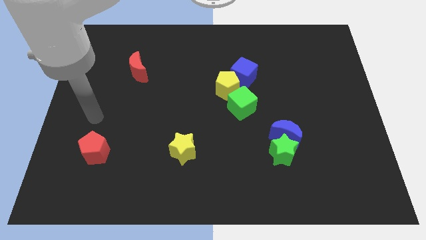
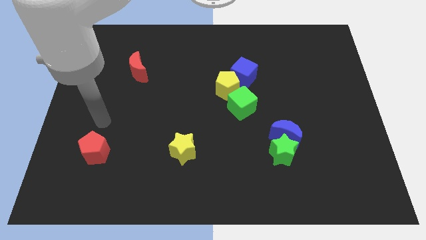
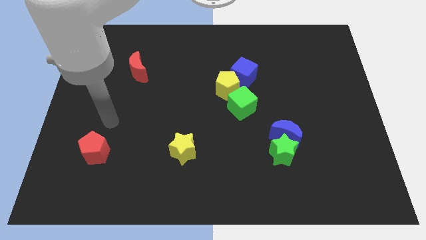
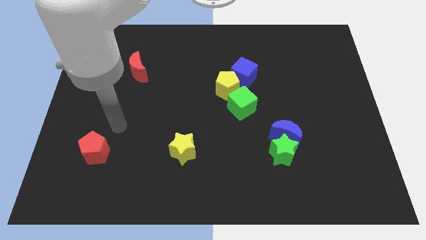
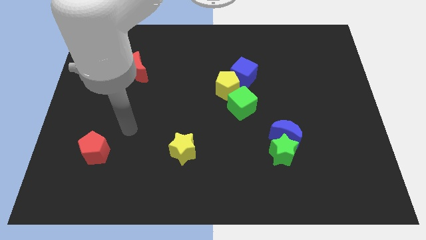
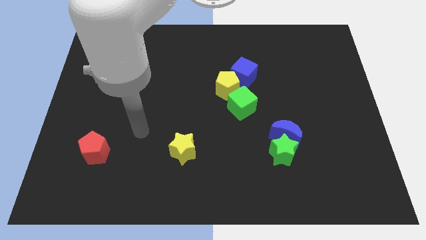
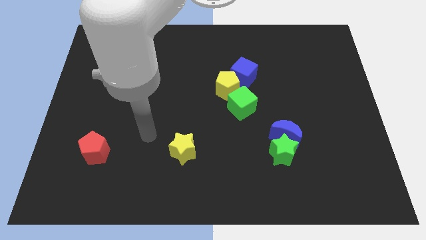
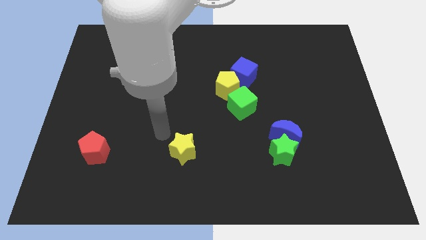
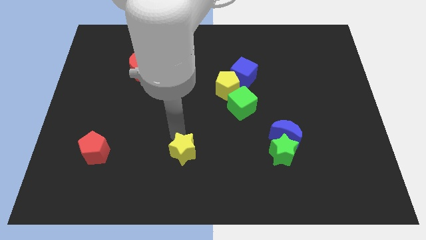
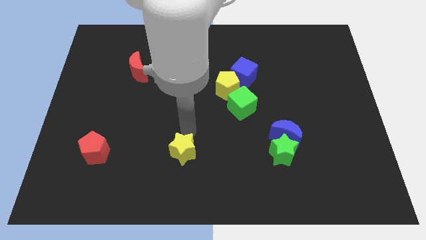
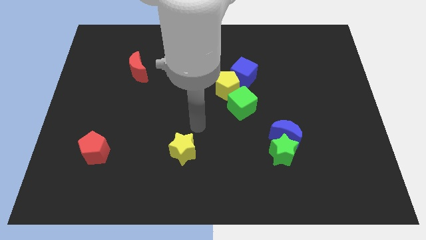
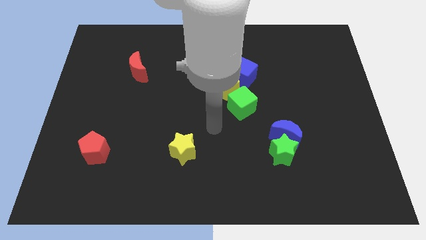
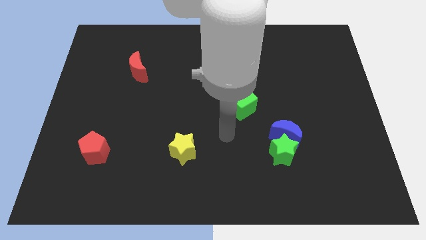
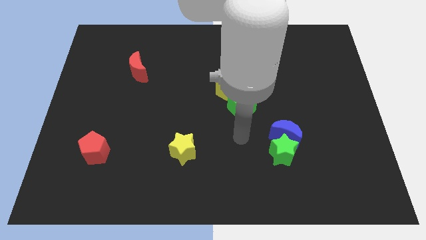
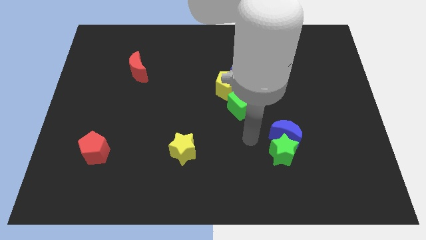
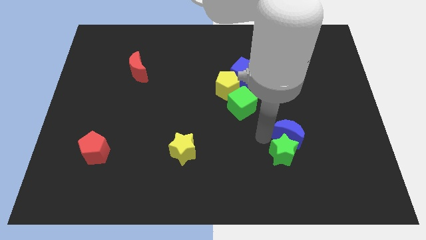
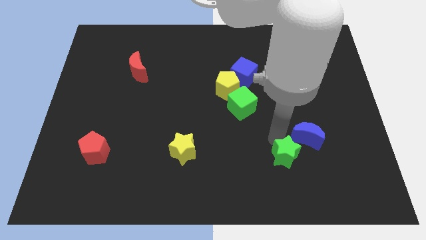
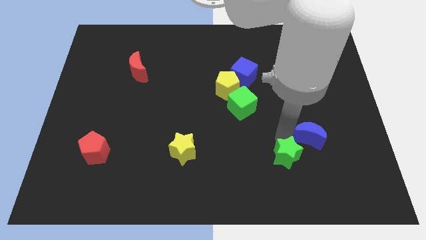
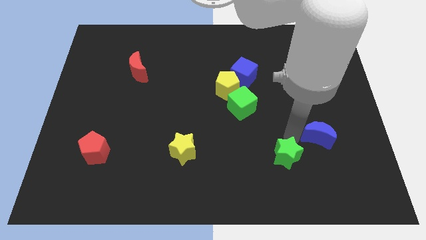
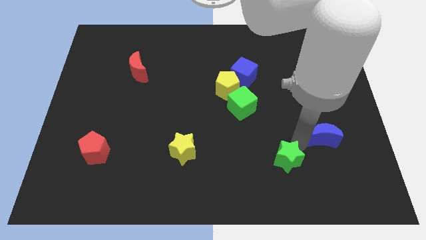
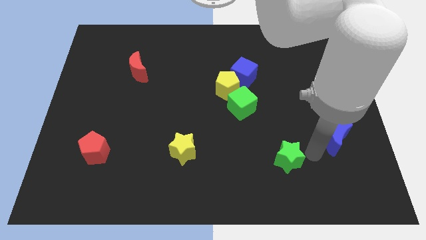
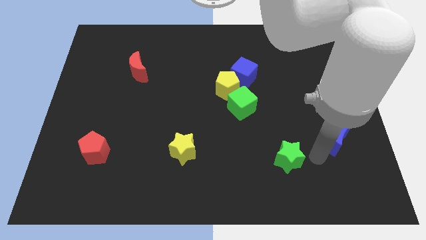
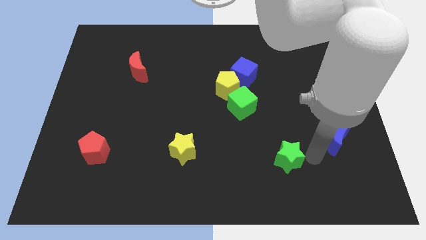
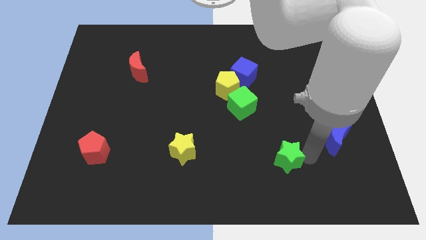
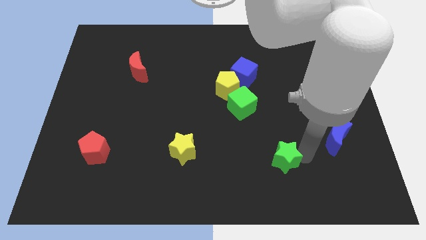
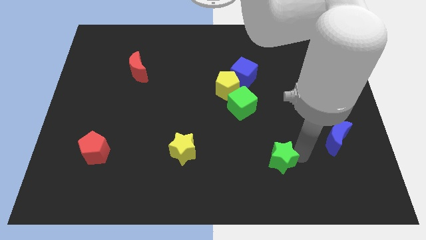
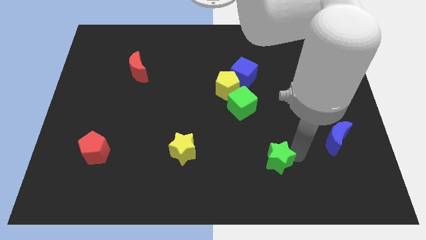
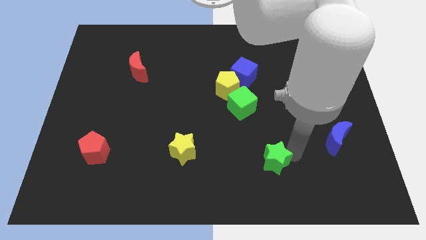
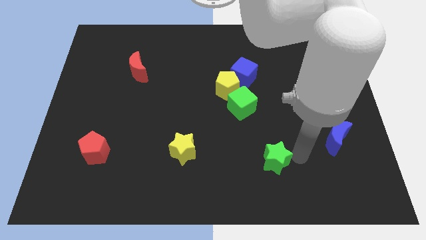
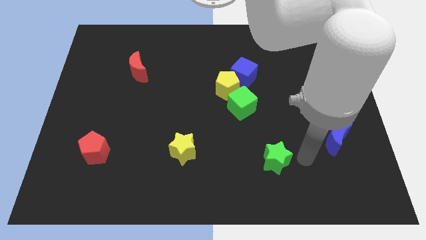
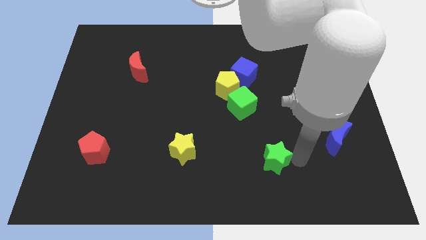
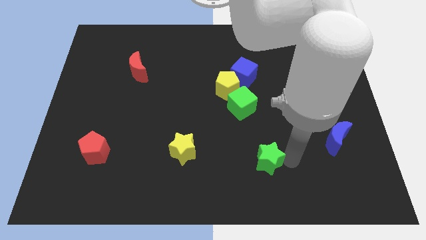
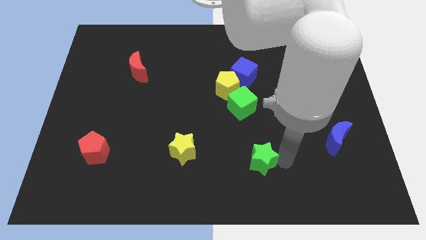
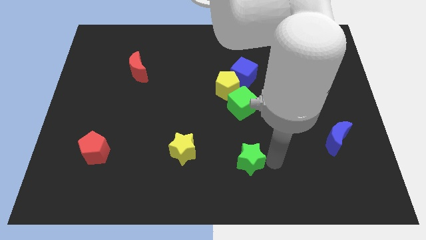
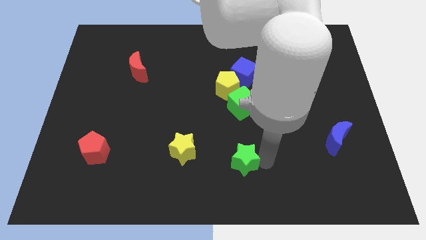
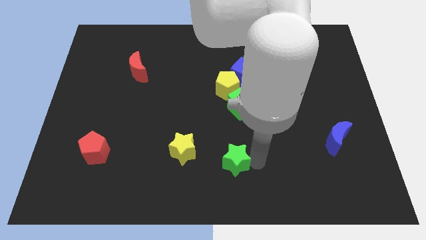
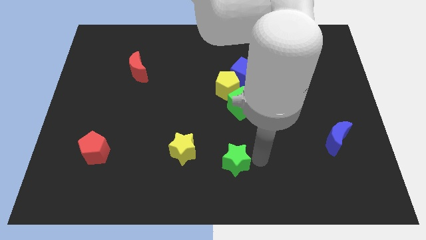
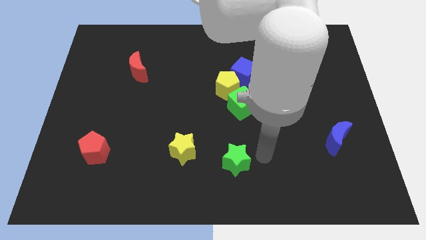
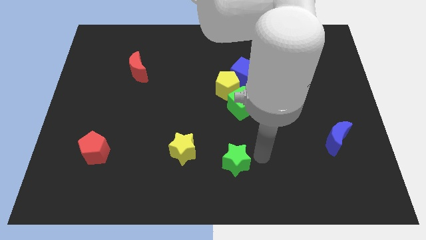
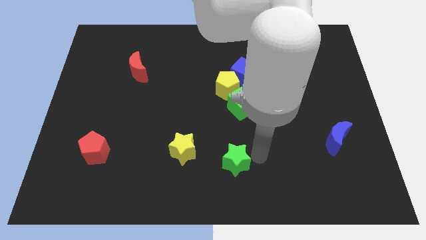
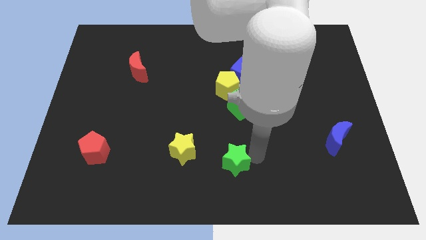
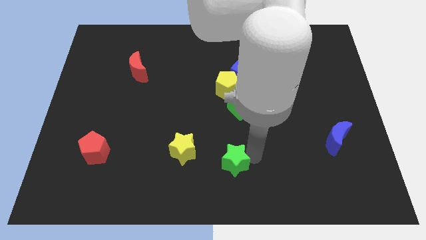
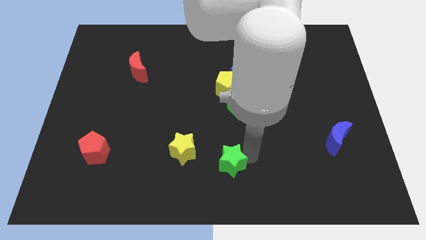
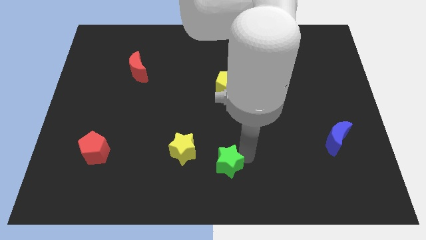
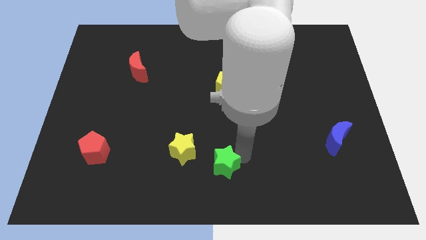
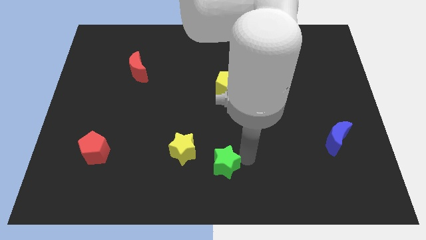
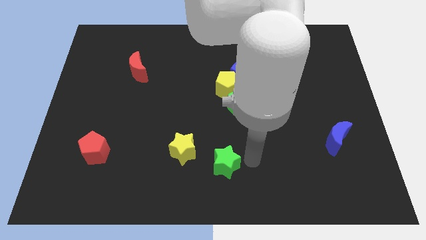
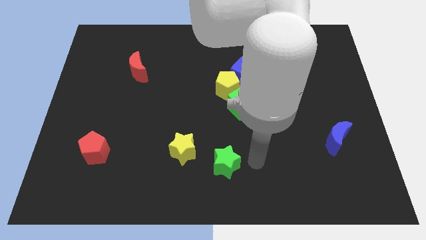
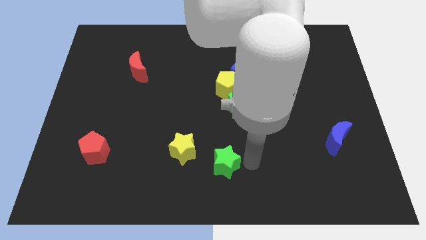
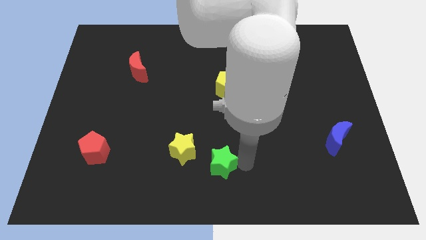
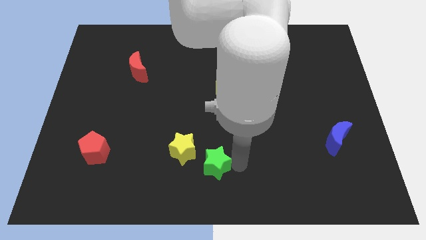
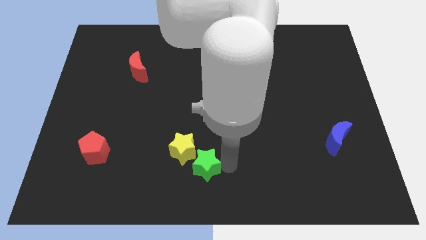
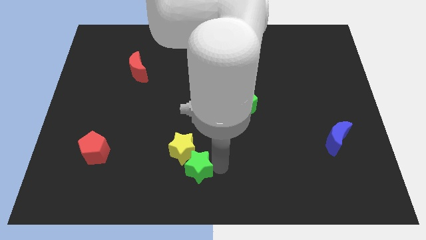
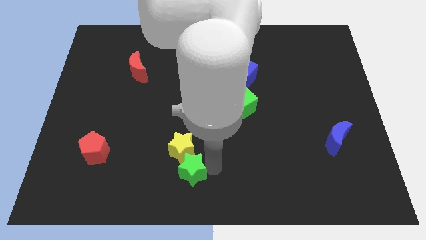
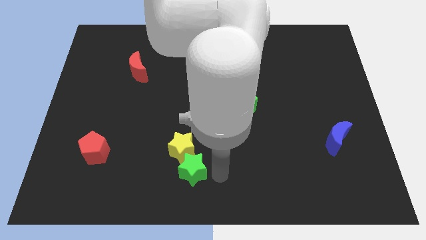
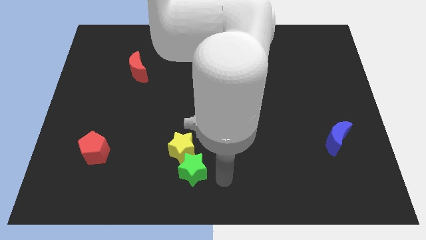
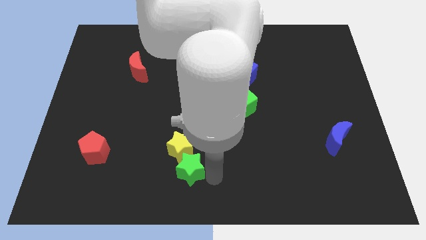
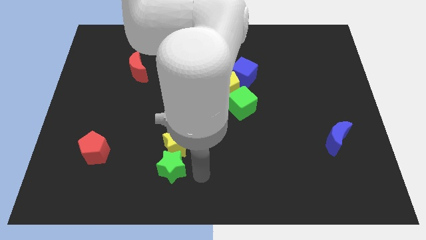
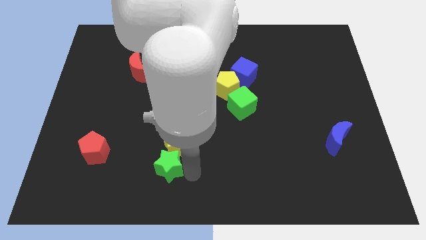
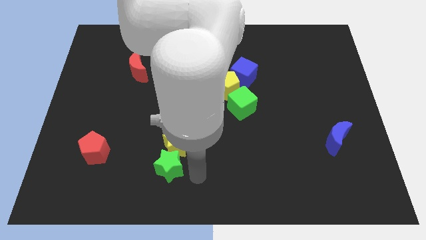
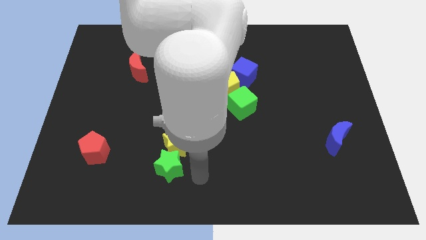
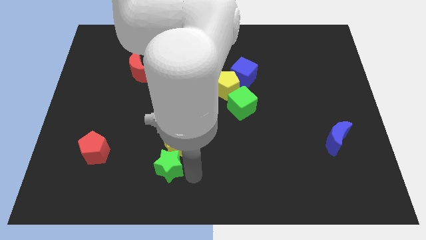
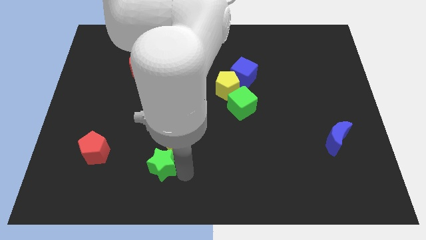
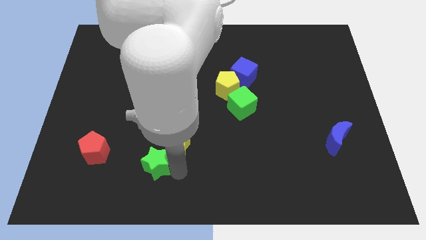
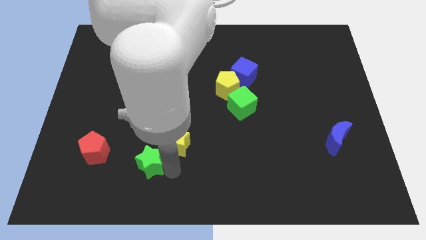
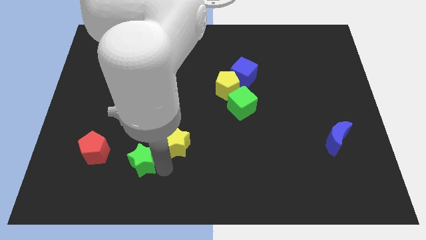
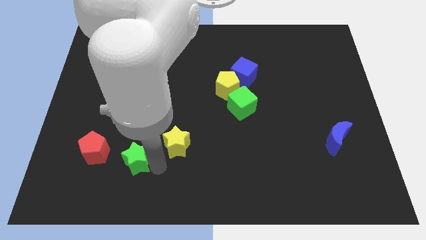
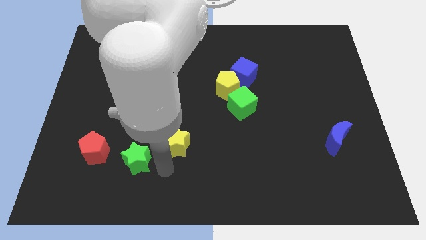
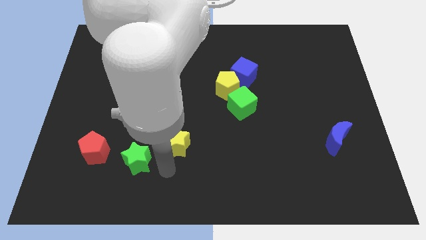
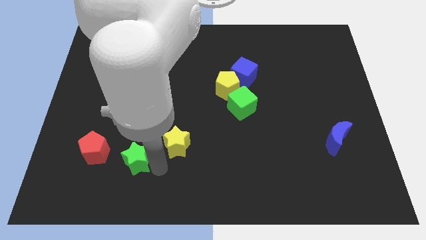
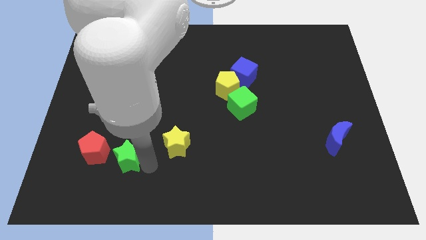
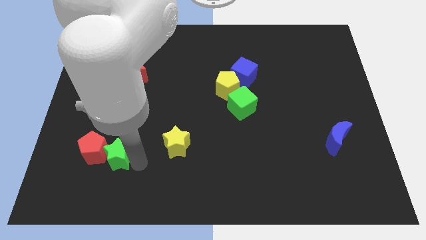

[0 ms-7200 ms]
move the green star towards the red pentagon

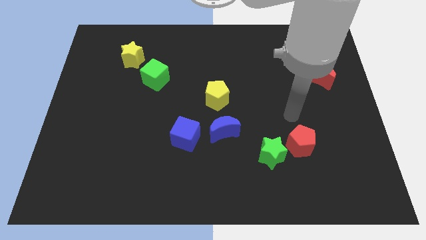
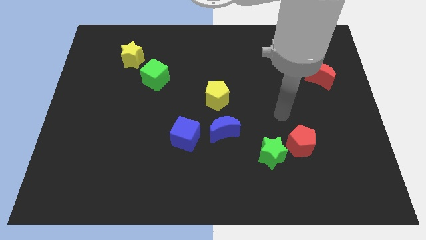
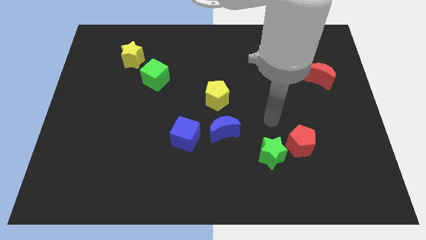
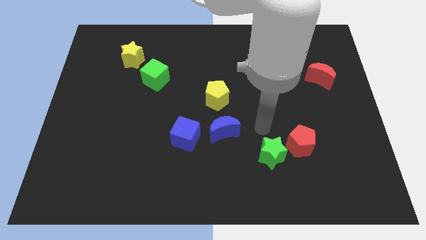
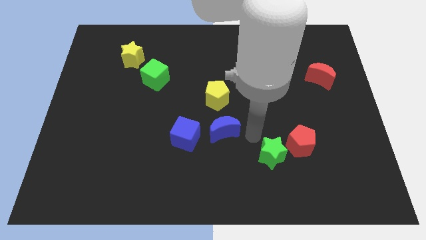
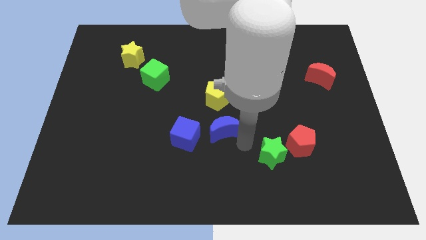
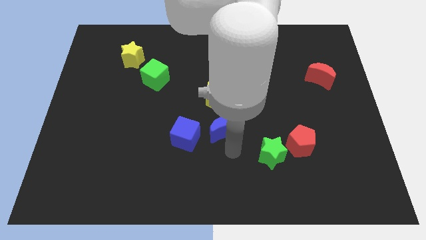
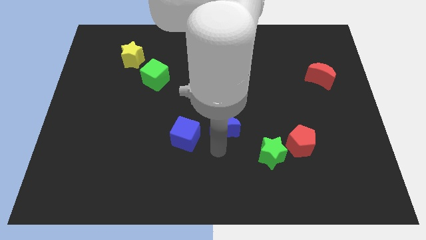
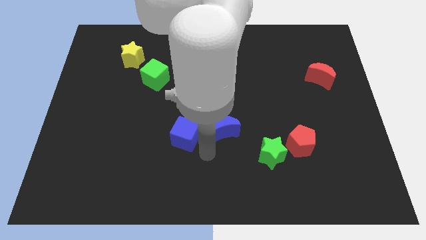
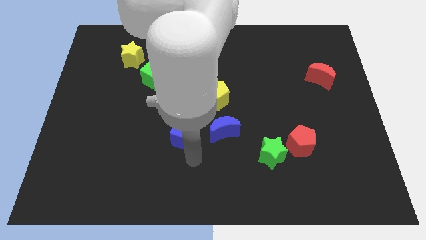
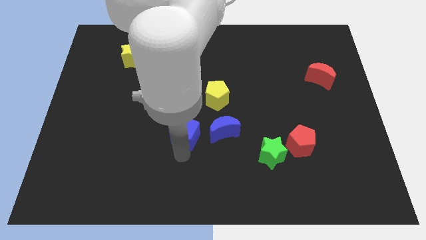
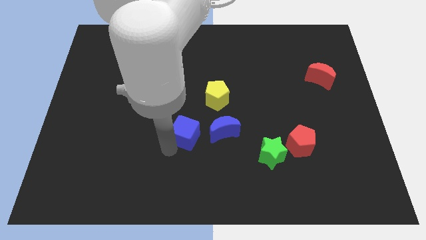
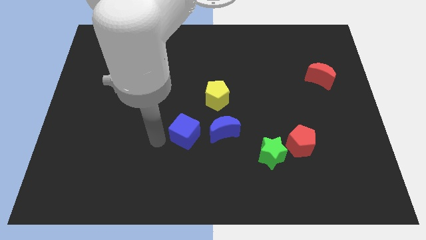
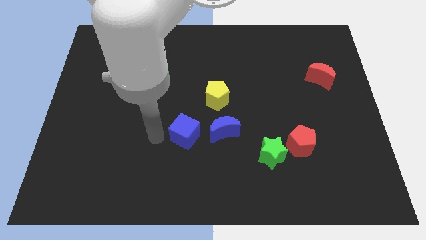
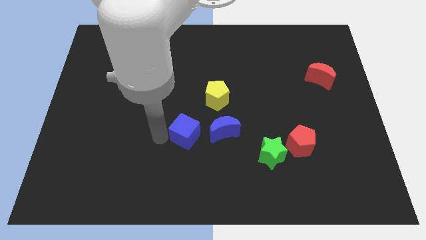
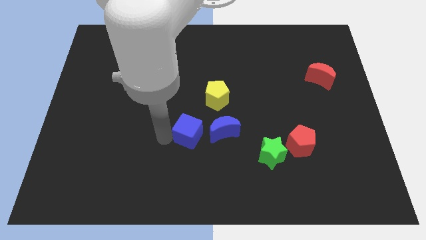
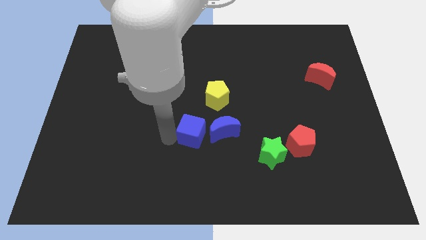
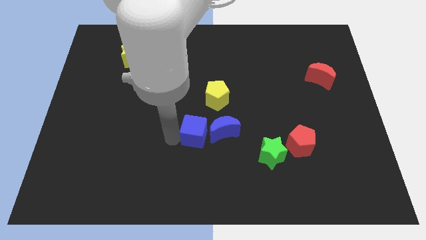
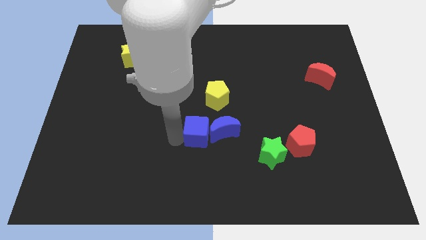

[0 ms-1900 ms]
slide the blue cube close to the blue moon
